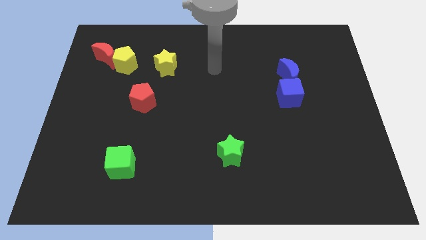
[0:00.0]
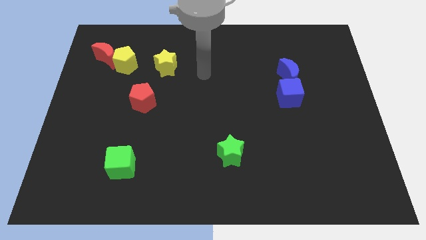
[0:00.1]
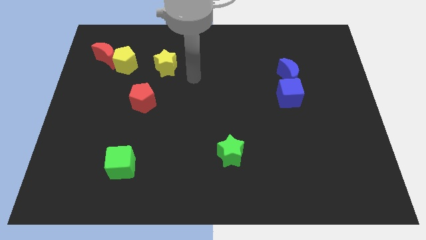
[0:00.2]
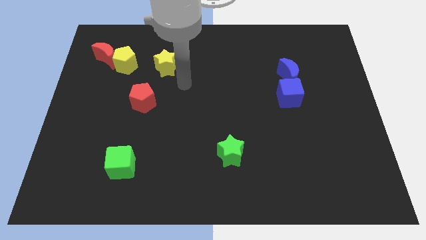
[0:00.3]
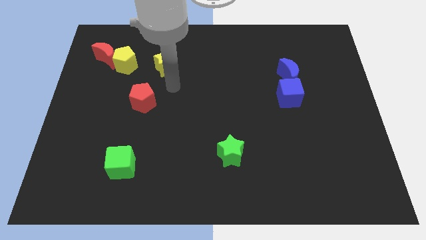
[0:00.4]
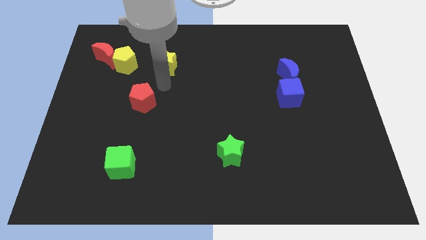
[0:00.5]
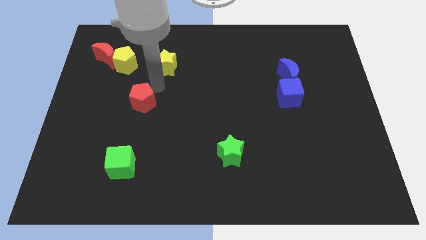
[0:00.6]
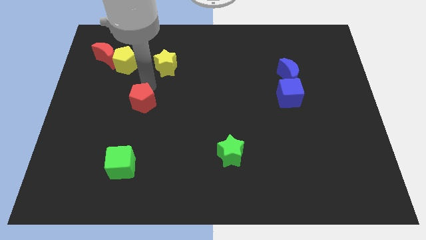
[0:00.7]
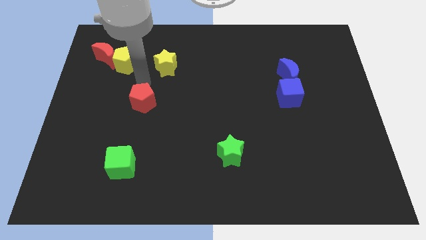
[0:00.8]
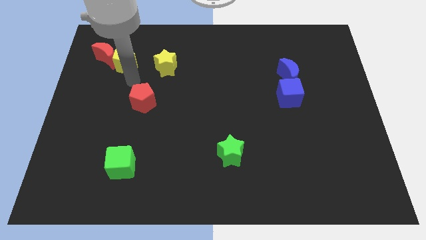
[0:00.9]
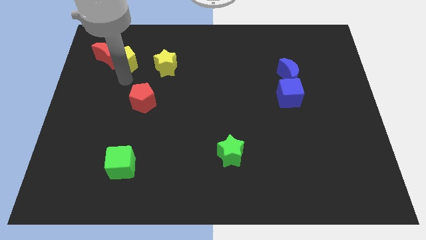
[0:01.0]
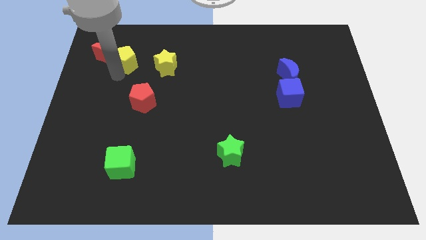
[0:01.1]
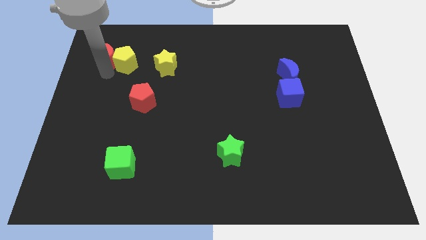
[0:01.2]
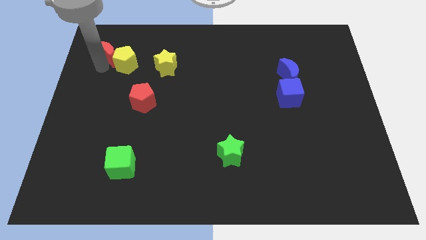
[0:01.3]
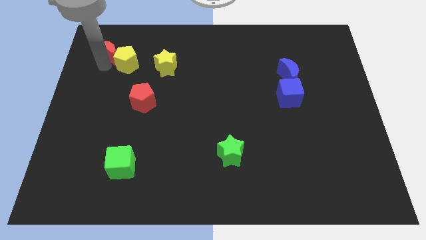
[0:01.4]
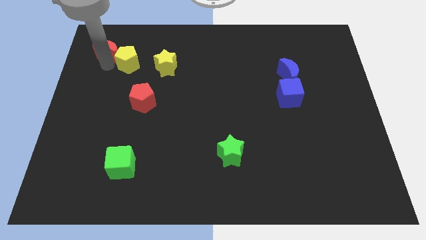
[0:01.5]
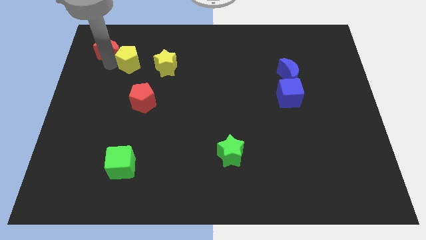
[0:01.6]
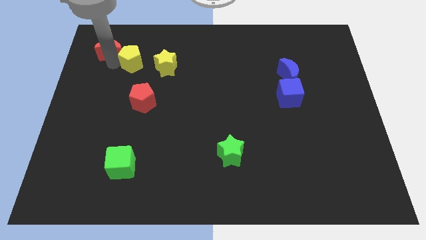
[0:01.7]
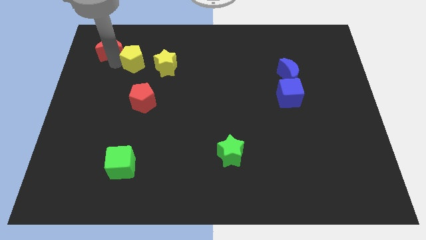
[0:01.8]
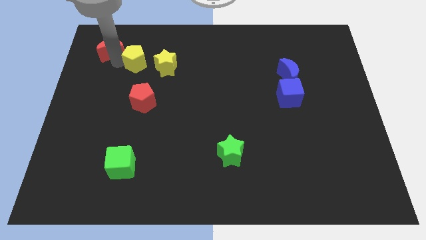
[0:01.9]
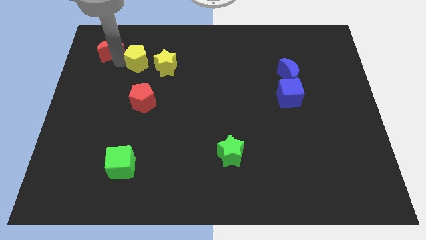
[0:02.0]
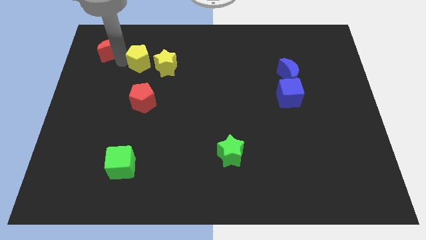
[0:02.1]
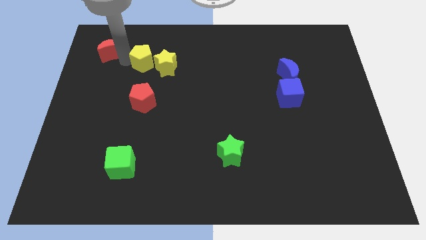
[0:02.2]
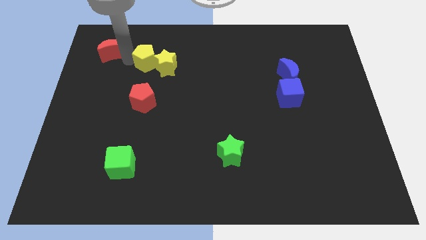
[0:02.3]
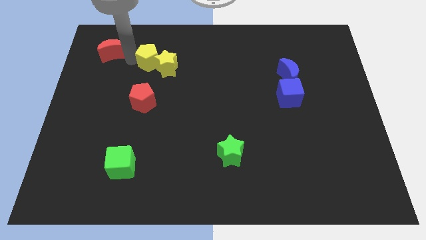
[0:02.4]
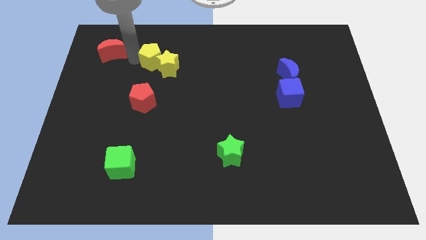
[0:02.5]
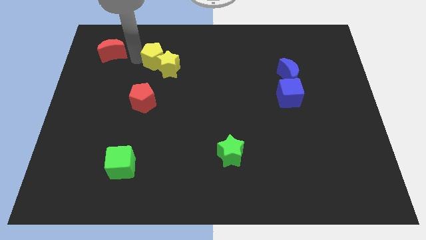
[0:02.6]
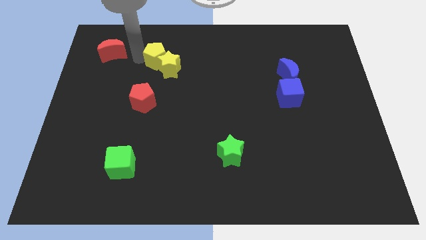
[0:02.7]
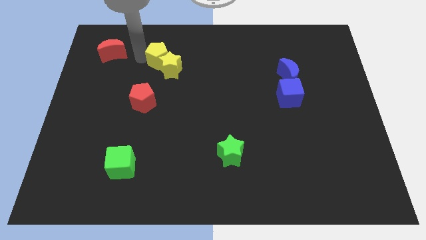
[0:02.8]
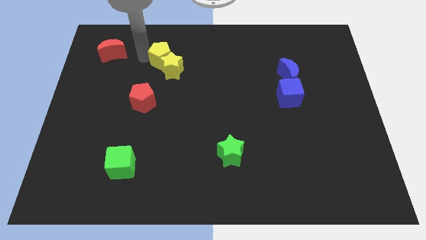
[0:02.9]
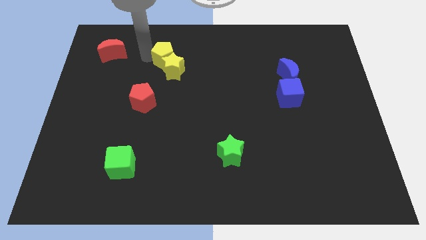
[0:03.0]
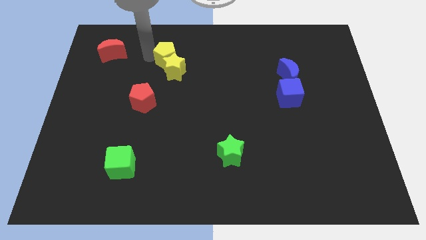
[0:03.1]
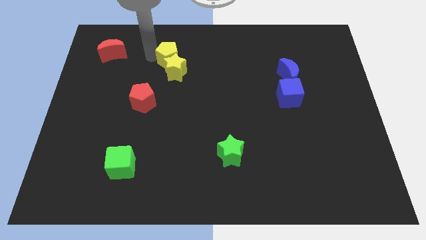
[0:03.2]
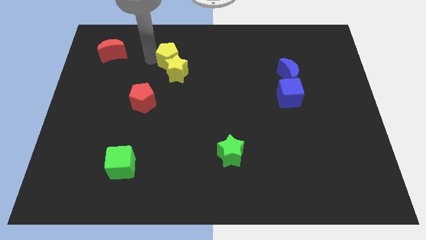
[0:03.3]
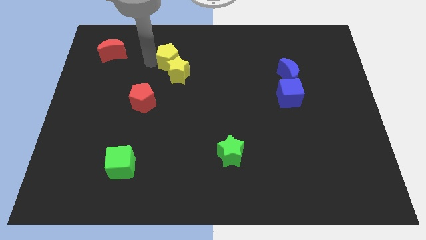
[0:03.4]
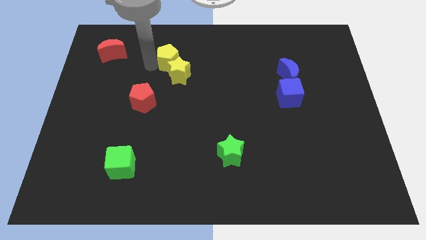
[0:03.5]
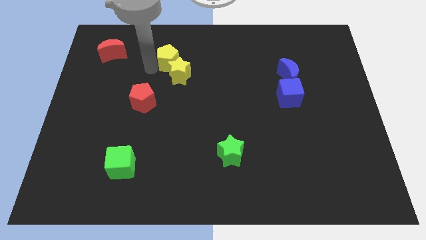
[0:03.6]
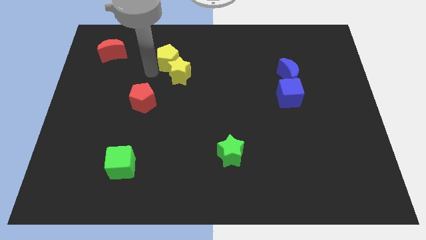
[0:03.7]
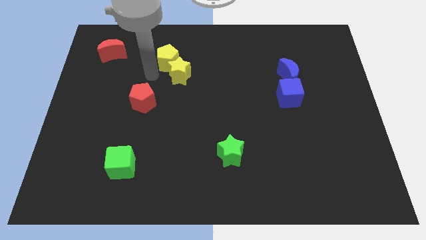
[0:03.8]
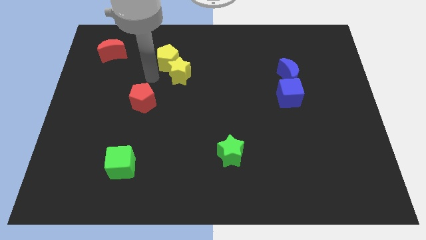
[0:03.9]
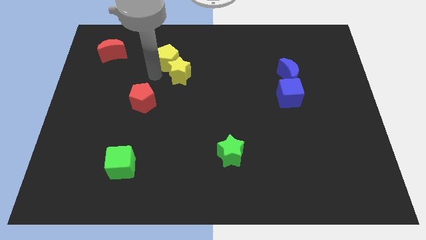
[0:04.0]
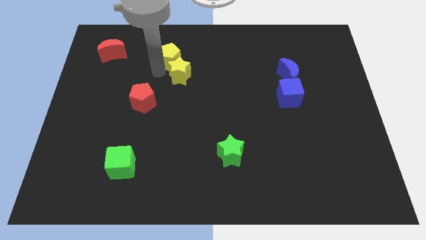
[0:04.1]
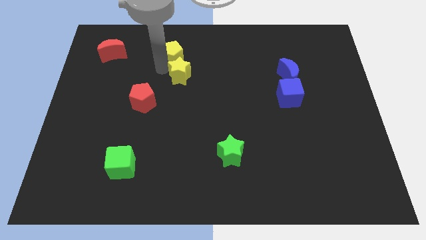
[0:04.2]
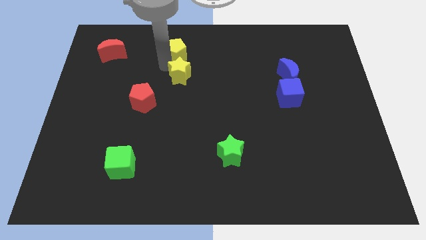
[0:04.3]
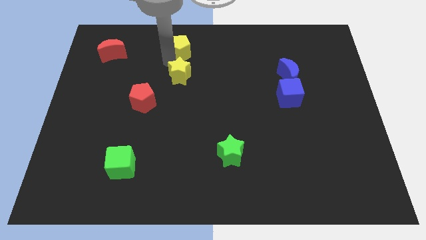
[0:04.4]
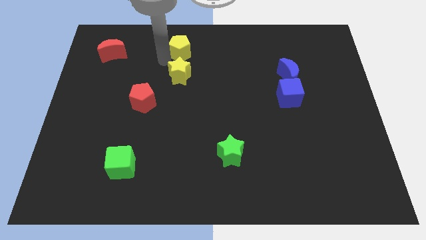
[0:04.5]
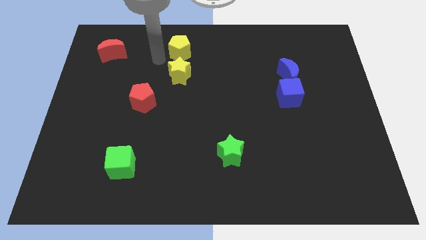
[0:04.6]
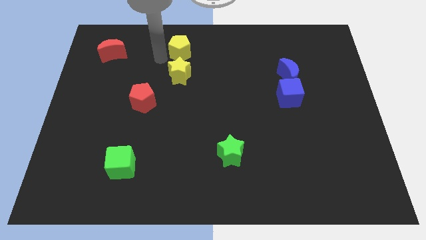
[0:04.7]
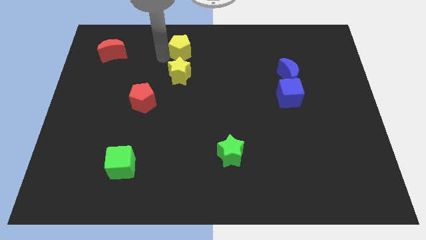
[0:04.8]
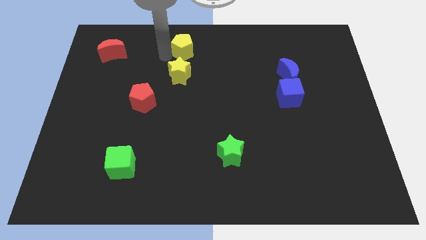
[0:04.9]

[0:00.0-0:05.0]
slide the yellow pentagon to the top side

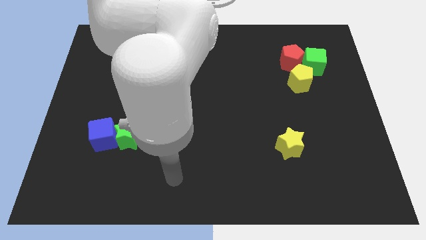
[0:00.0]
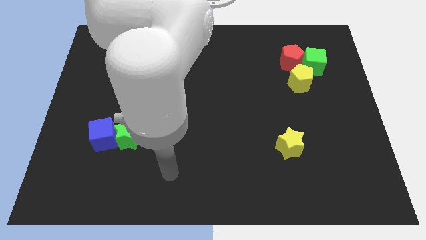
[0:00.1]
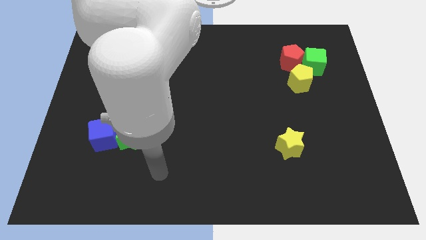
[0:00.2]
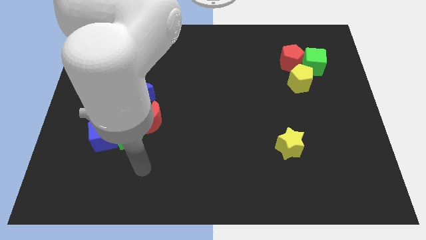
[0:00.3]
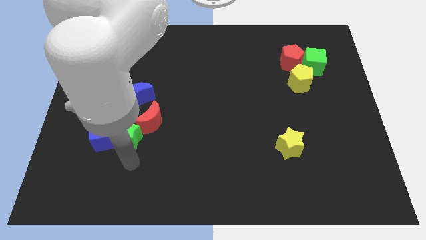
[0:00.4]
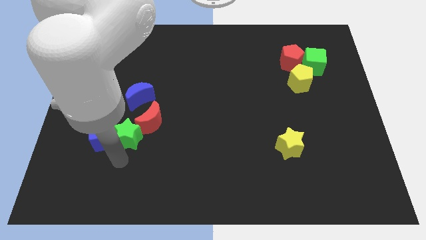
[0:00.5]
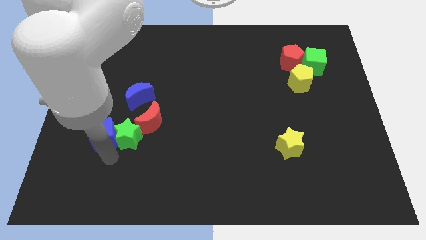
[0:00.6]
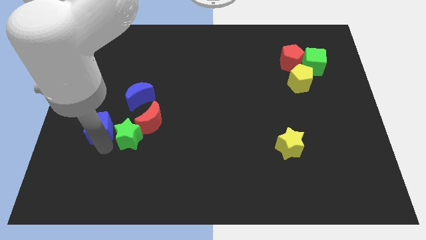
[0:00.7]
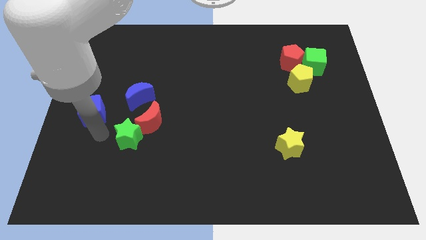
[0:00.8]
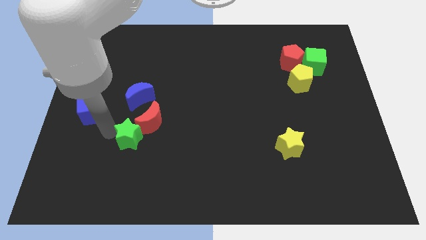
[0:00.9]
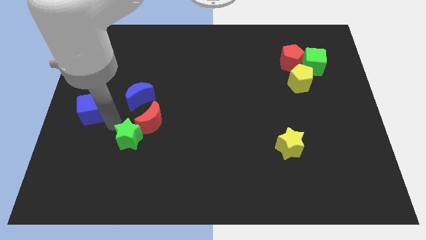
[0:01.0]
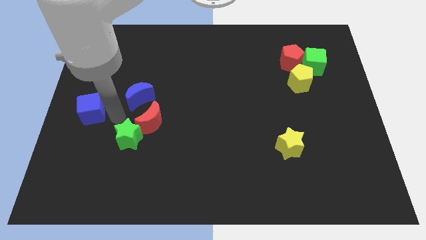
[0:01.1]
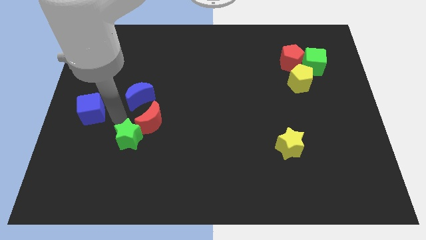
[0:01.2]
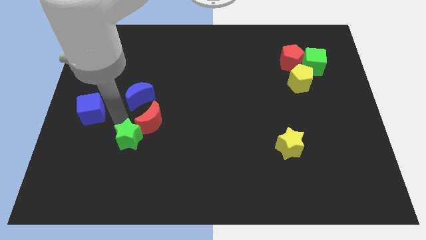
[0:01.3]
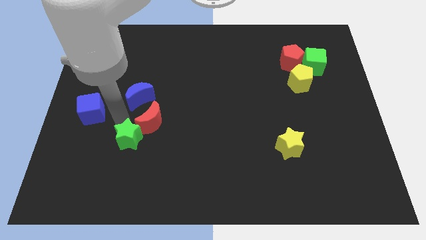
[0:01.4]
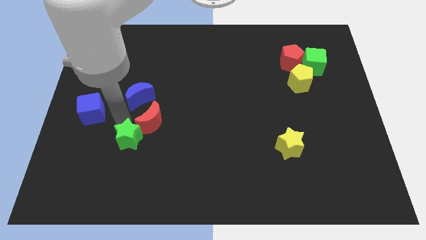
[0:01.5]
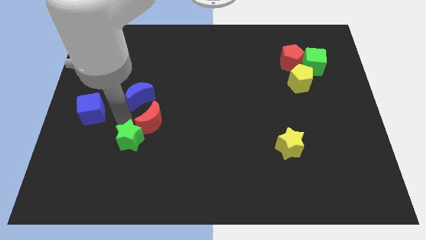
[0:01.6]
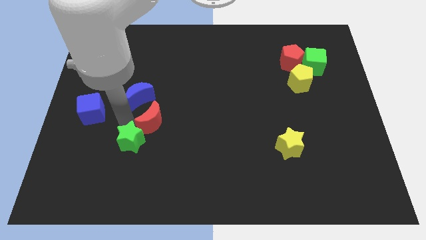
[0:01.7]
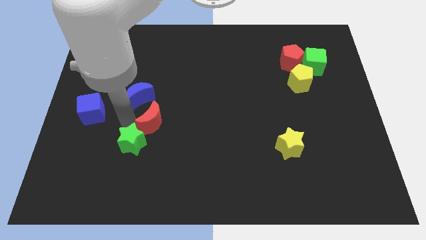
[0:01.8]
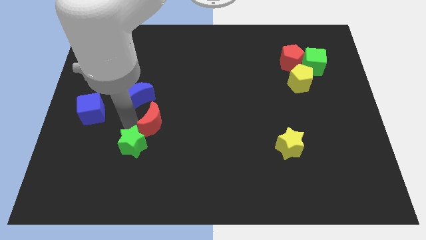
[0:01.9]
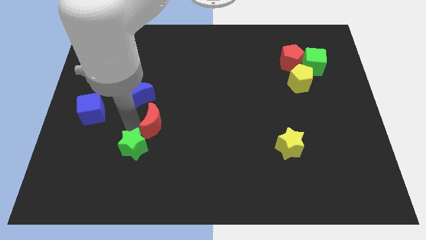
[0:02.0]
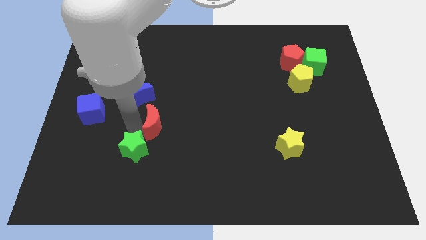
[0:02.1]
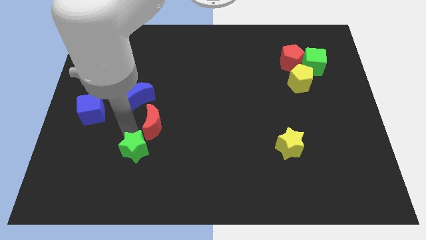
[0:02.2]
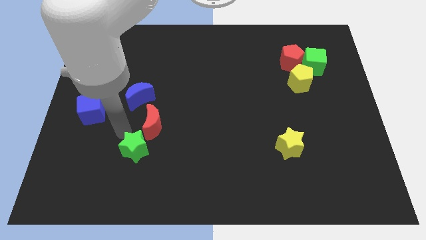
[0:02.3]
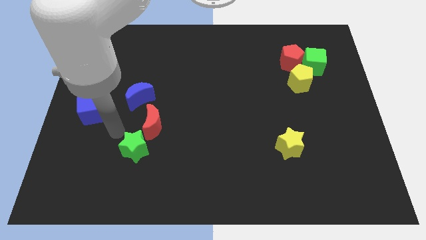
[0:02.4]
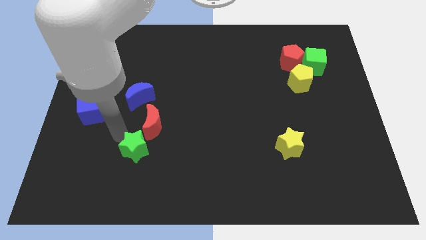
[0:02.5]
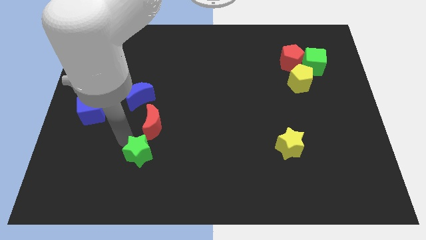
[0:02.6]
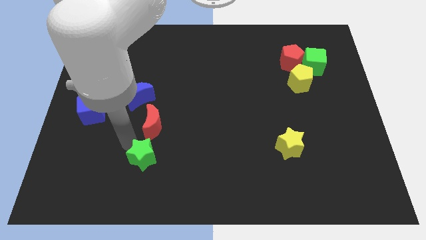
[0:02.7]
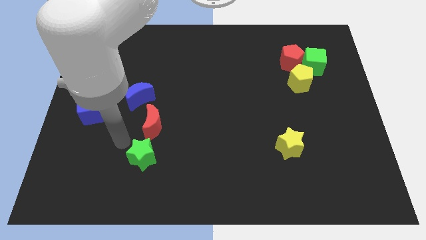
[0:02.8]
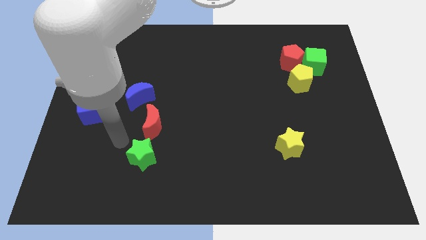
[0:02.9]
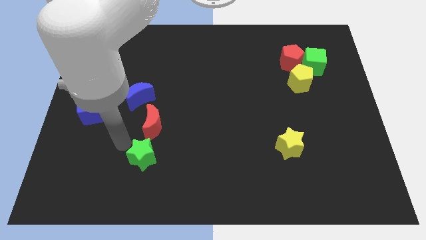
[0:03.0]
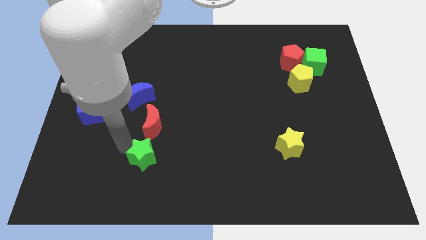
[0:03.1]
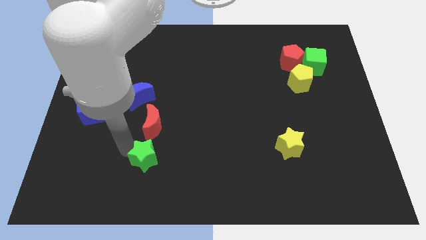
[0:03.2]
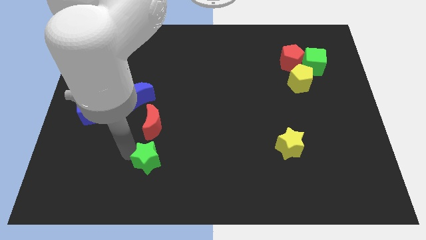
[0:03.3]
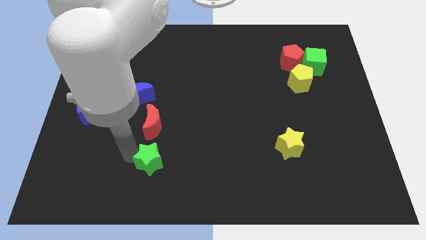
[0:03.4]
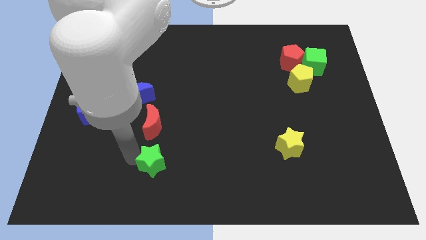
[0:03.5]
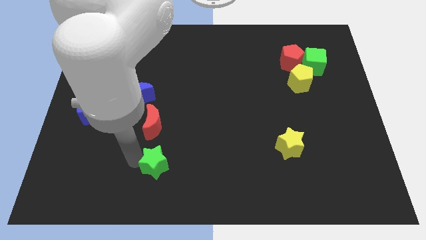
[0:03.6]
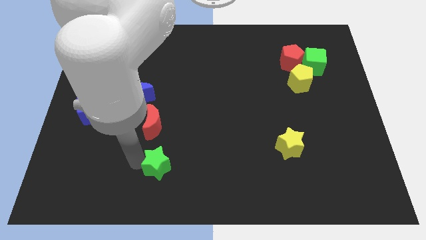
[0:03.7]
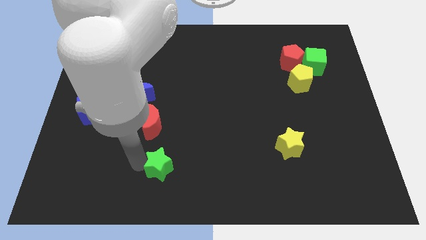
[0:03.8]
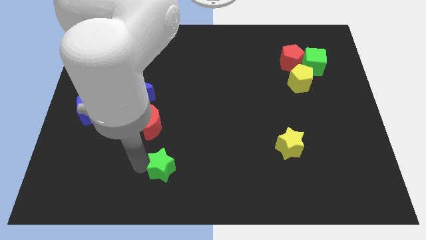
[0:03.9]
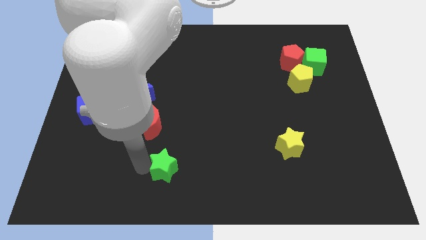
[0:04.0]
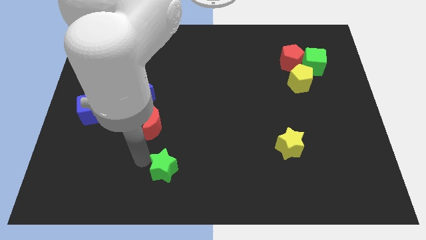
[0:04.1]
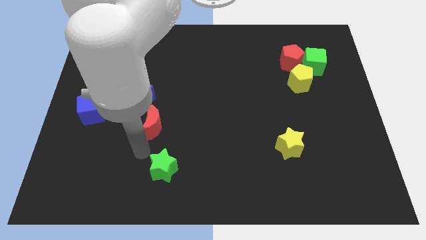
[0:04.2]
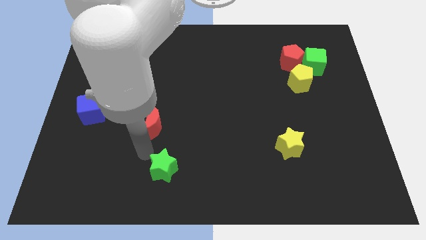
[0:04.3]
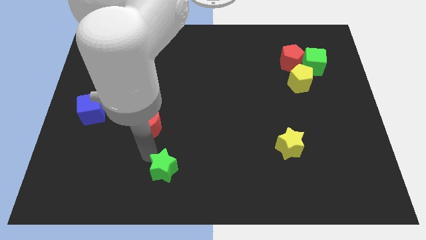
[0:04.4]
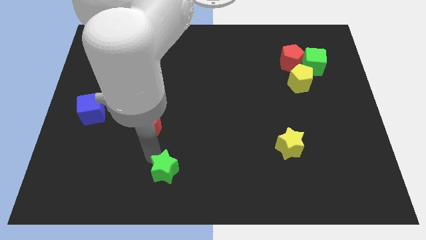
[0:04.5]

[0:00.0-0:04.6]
push the green star to the bottom
